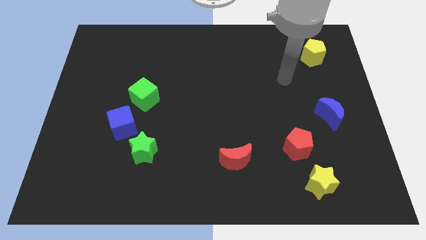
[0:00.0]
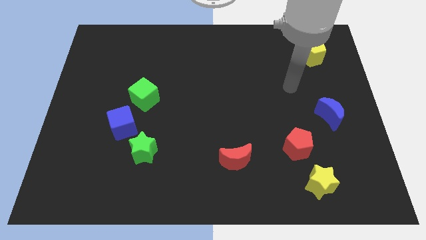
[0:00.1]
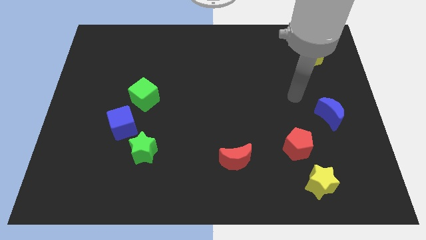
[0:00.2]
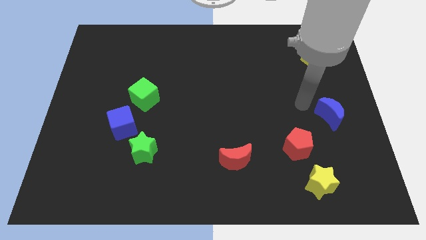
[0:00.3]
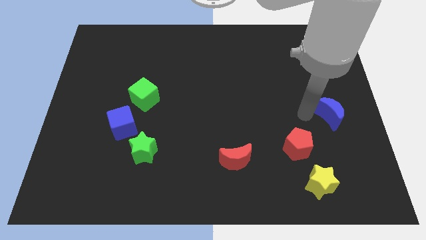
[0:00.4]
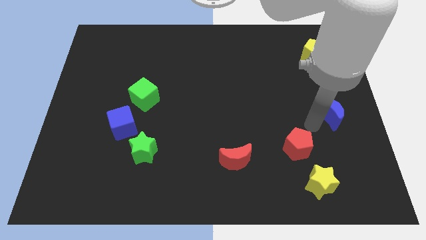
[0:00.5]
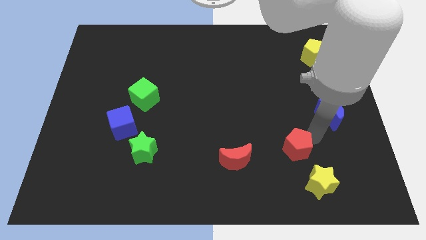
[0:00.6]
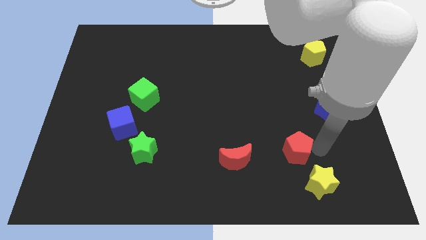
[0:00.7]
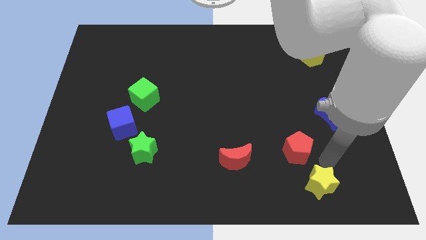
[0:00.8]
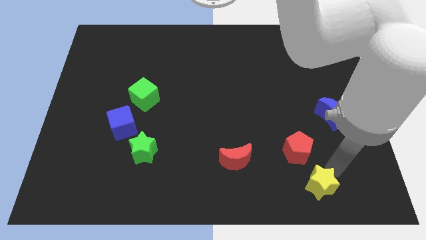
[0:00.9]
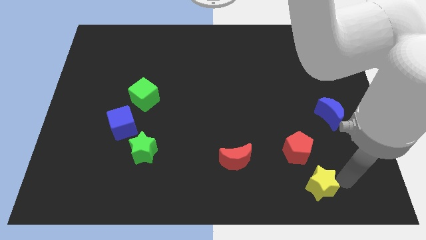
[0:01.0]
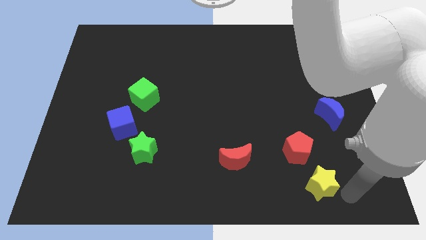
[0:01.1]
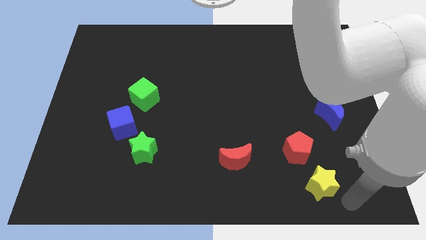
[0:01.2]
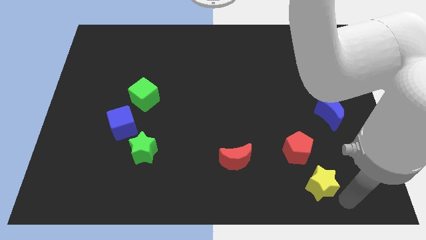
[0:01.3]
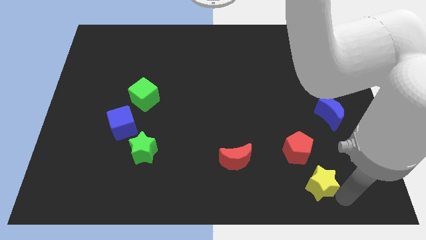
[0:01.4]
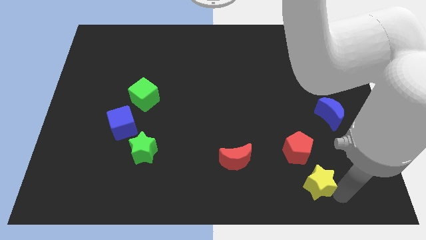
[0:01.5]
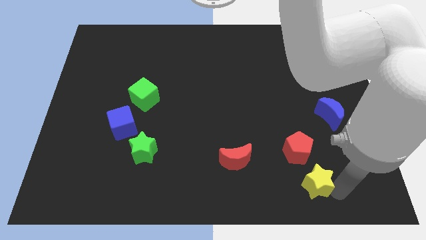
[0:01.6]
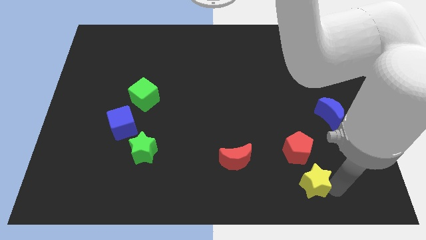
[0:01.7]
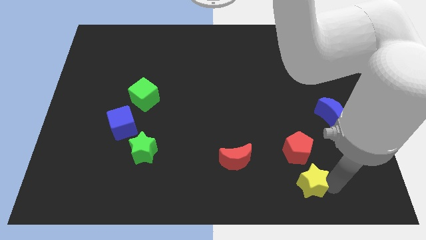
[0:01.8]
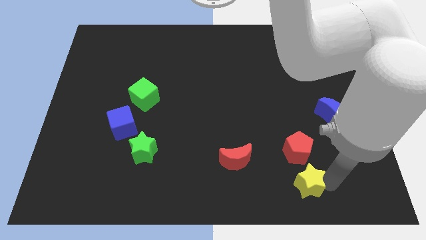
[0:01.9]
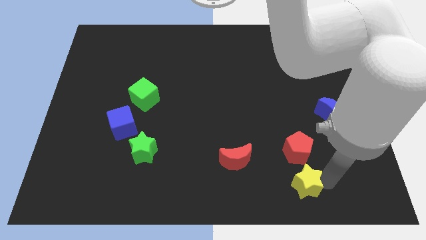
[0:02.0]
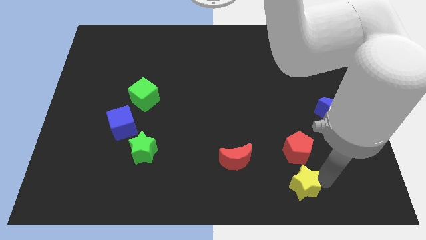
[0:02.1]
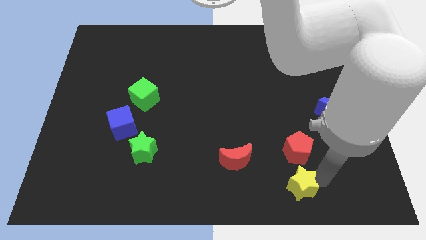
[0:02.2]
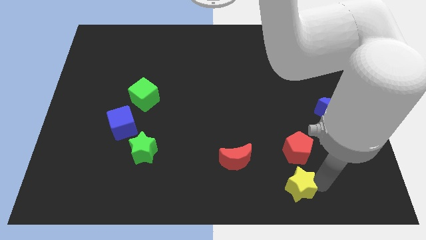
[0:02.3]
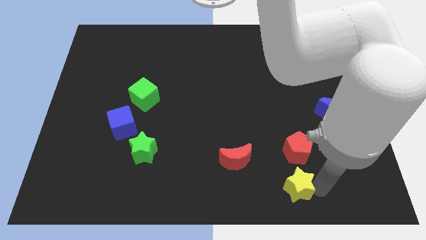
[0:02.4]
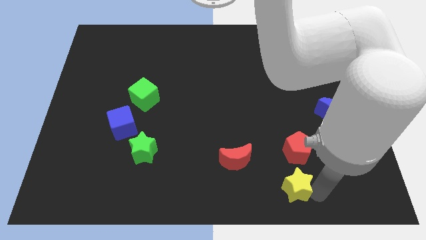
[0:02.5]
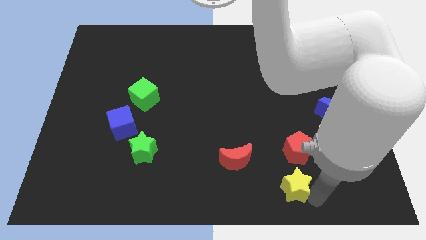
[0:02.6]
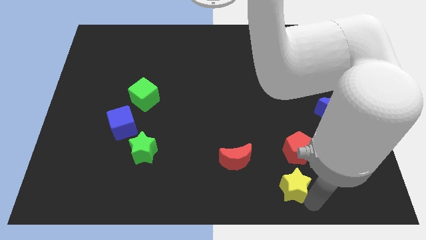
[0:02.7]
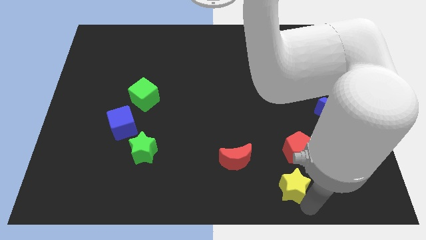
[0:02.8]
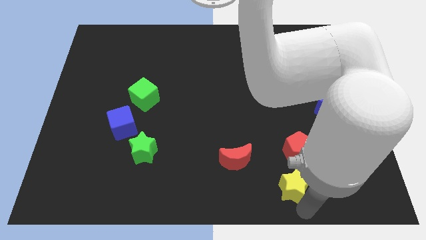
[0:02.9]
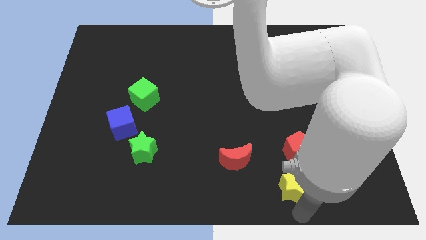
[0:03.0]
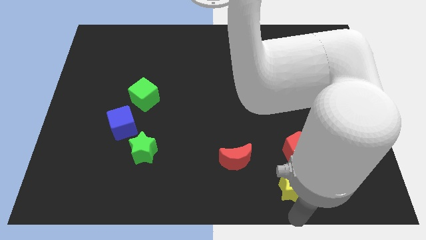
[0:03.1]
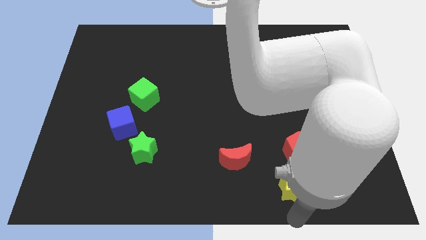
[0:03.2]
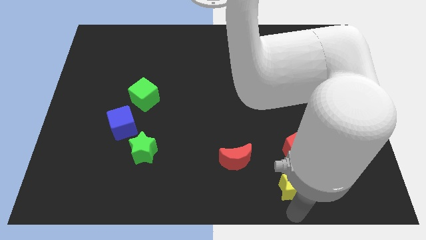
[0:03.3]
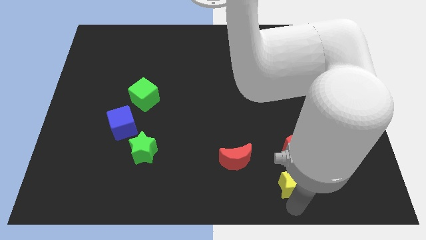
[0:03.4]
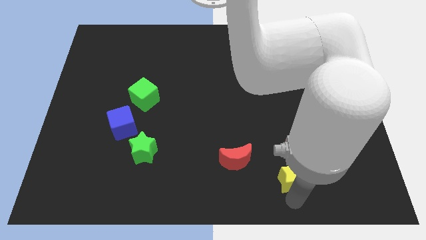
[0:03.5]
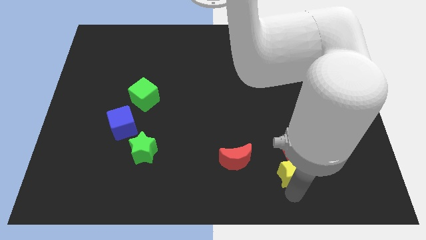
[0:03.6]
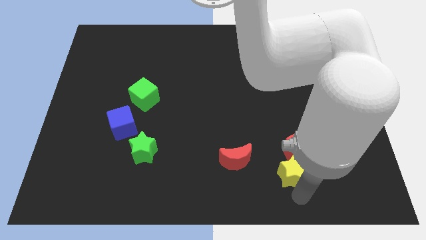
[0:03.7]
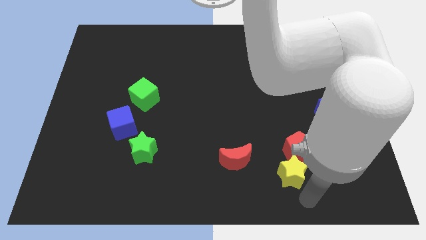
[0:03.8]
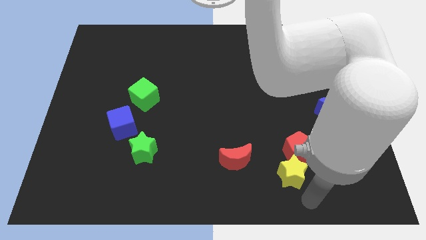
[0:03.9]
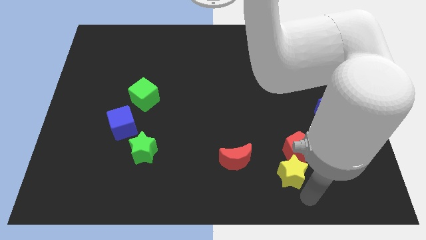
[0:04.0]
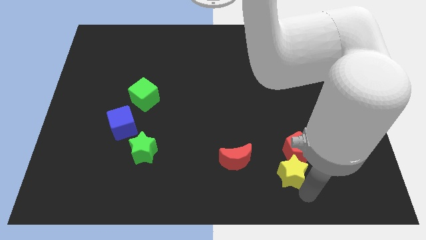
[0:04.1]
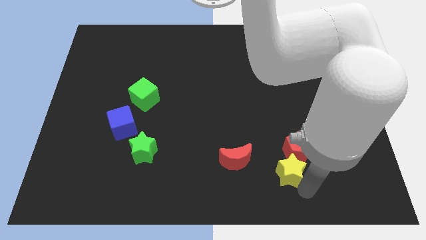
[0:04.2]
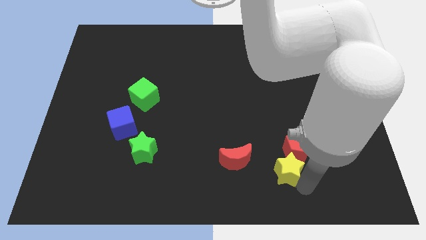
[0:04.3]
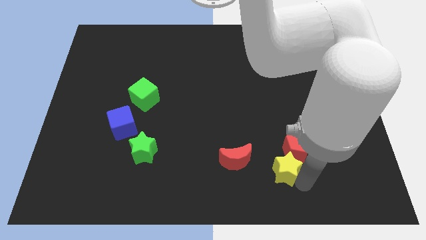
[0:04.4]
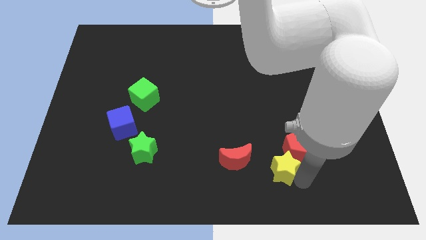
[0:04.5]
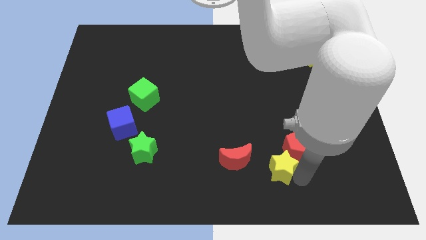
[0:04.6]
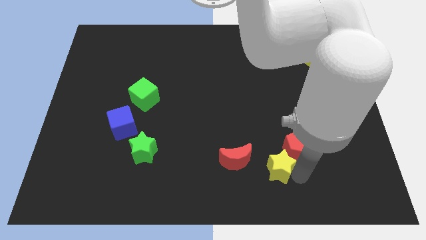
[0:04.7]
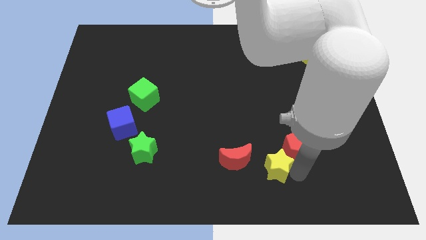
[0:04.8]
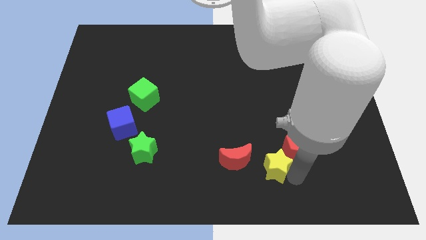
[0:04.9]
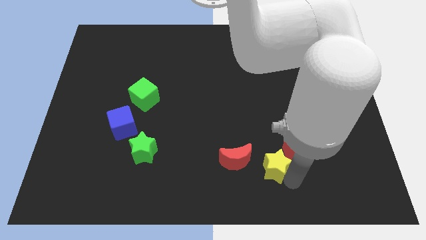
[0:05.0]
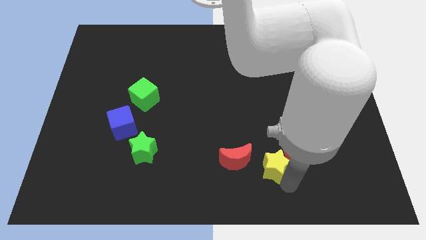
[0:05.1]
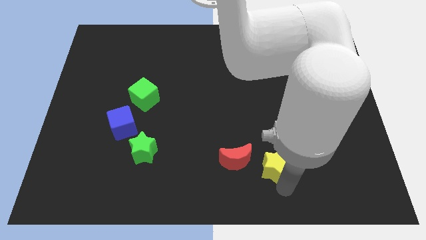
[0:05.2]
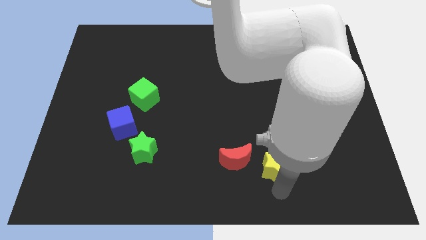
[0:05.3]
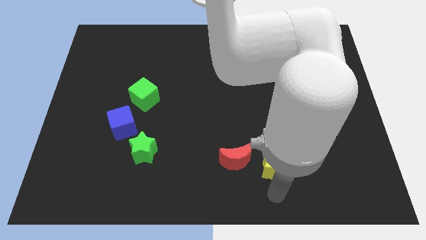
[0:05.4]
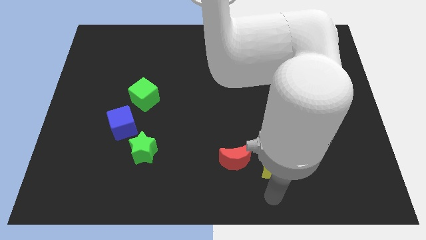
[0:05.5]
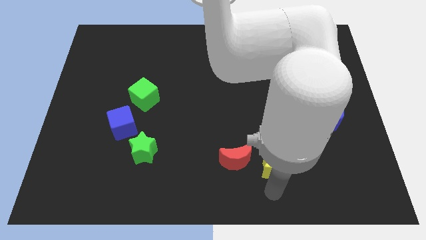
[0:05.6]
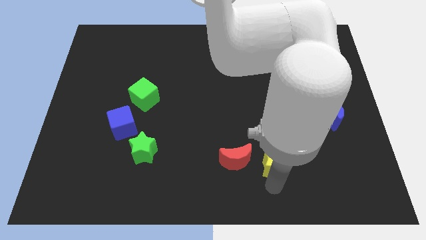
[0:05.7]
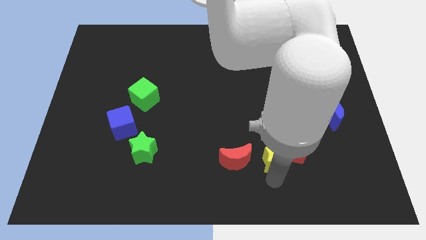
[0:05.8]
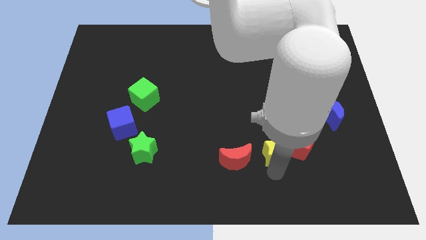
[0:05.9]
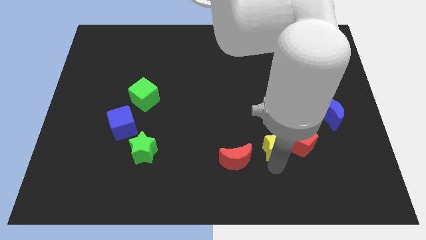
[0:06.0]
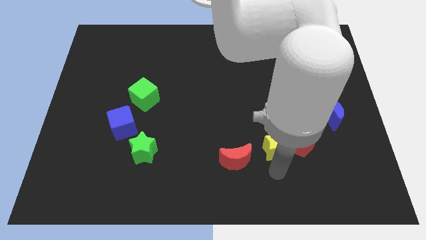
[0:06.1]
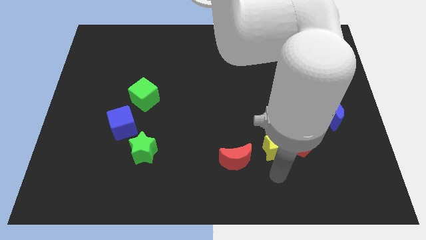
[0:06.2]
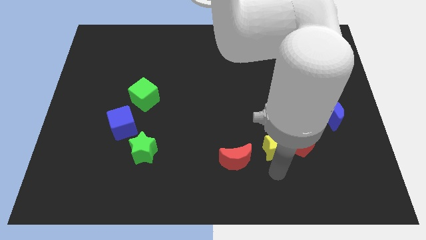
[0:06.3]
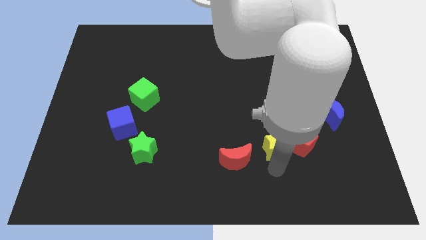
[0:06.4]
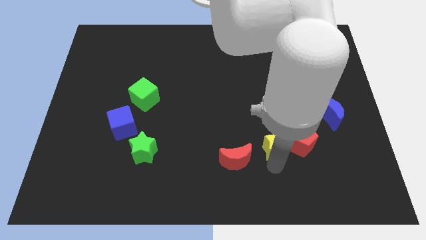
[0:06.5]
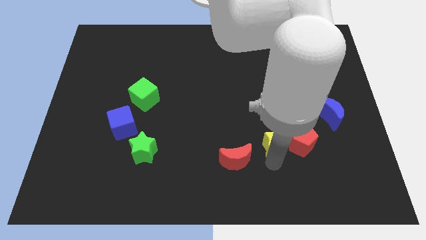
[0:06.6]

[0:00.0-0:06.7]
put the yellow star to the top left of the red pentagon

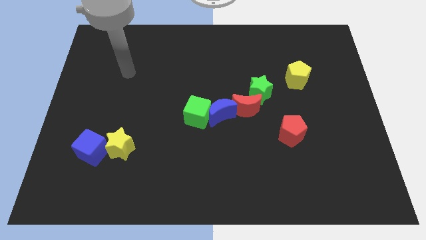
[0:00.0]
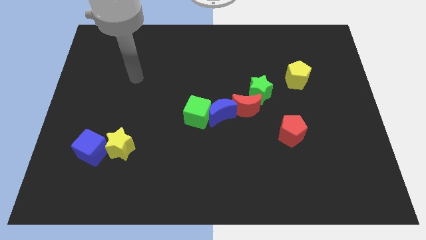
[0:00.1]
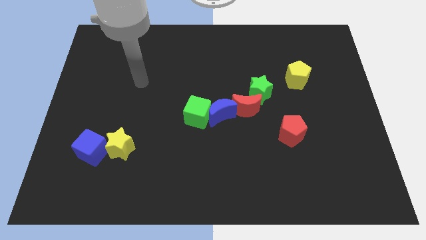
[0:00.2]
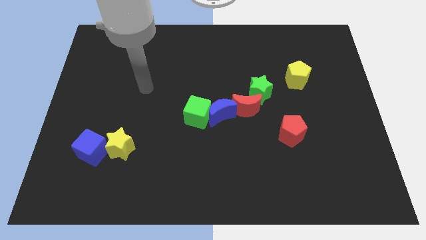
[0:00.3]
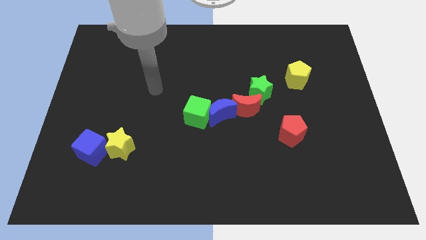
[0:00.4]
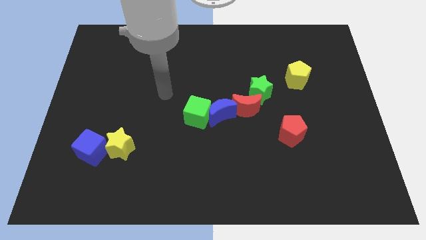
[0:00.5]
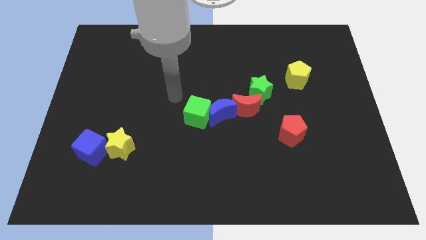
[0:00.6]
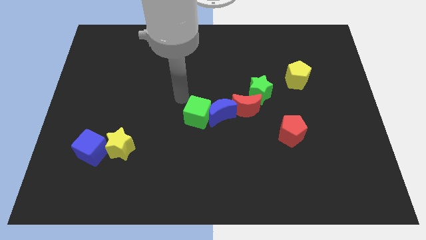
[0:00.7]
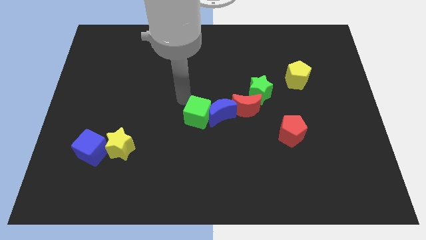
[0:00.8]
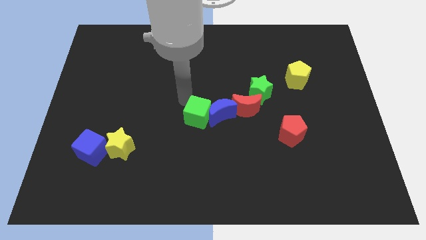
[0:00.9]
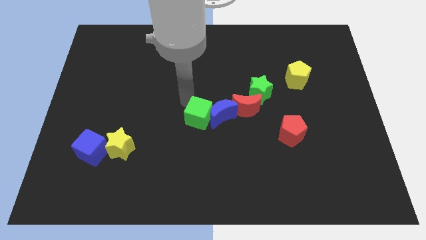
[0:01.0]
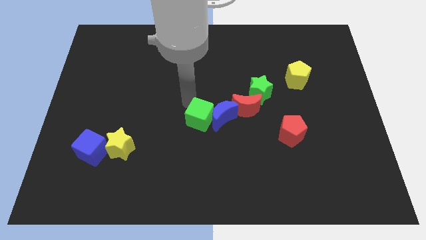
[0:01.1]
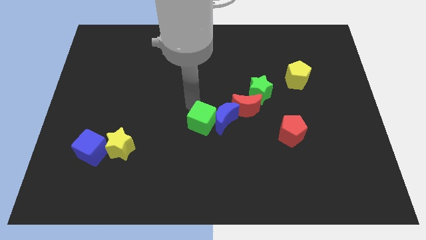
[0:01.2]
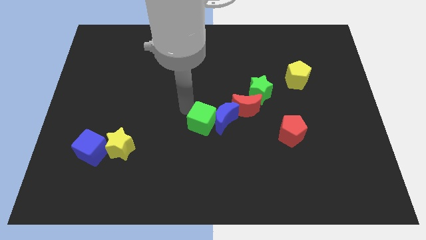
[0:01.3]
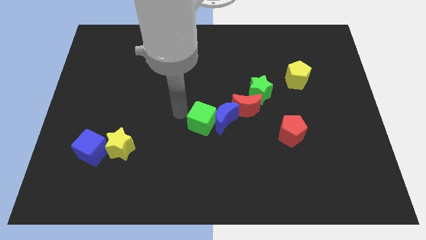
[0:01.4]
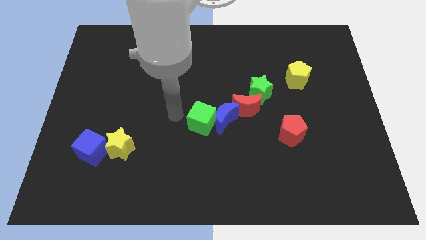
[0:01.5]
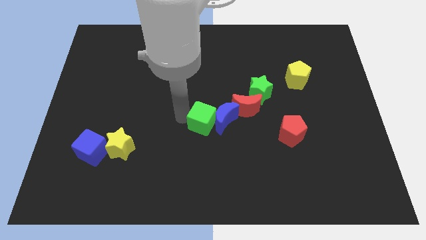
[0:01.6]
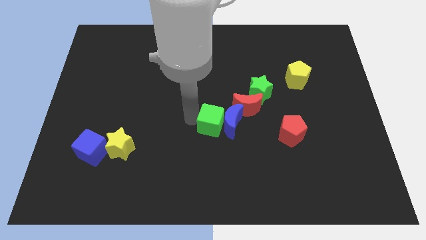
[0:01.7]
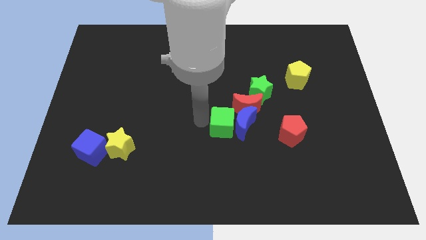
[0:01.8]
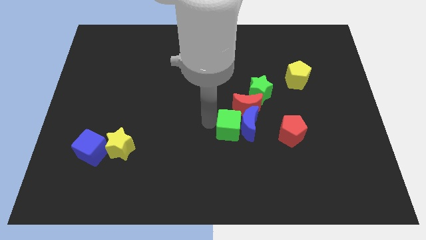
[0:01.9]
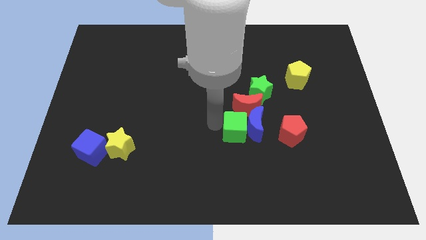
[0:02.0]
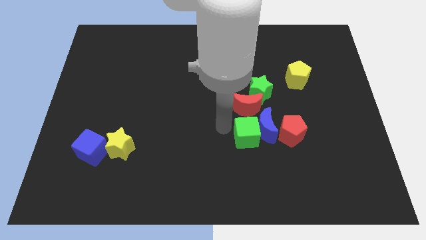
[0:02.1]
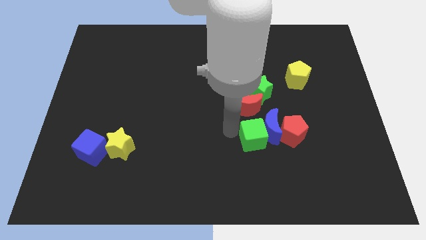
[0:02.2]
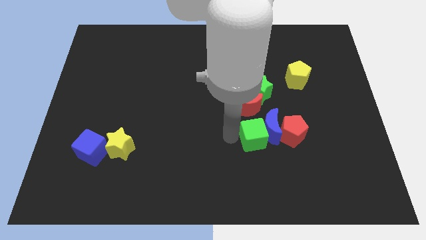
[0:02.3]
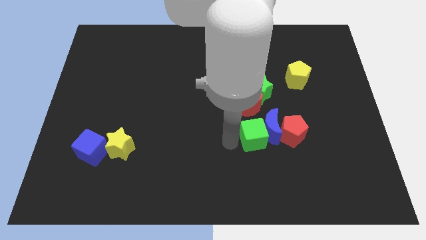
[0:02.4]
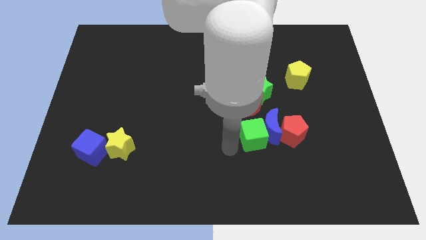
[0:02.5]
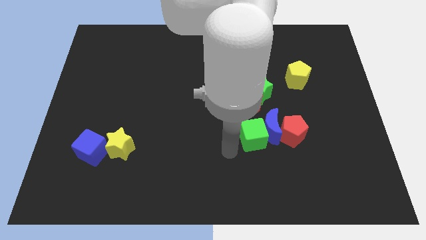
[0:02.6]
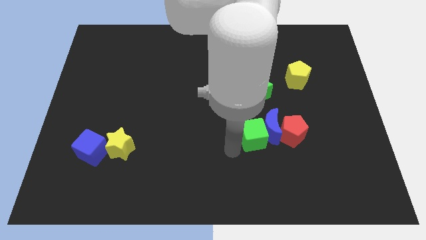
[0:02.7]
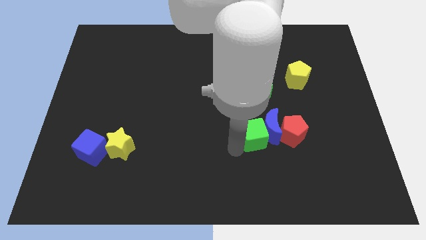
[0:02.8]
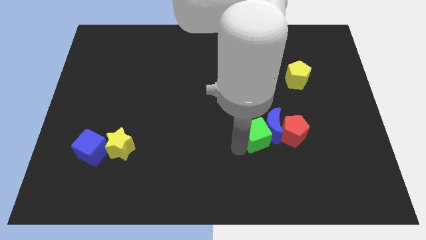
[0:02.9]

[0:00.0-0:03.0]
push the green cube diagonally down and to the right of the red moon
